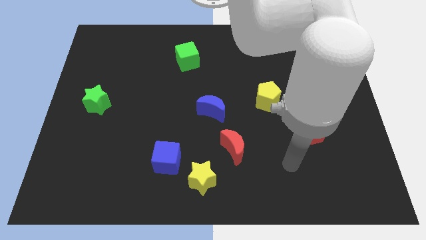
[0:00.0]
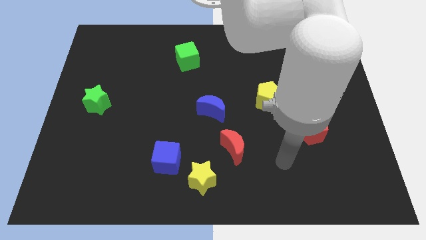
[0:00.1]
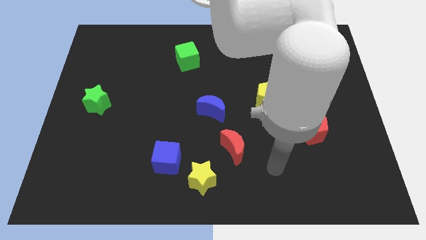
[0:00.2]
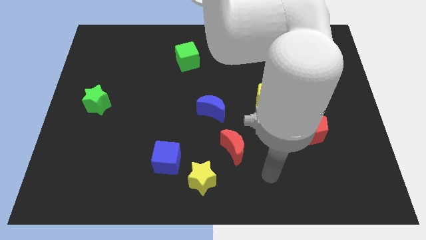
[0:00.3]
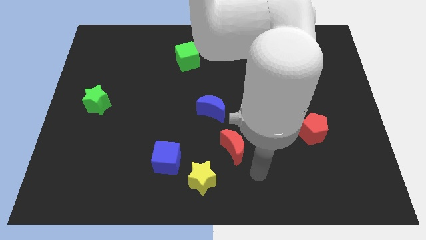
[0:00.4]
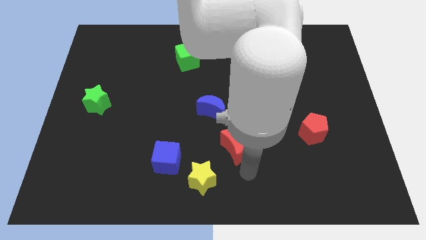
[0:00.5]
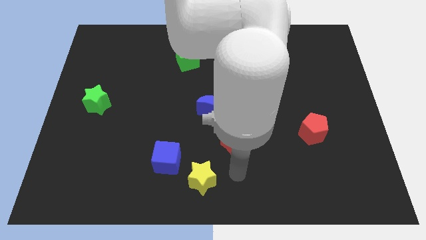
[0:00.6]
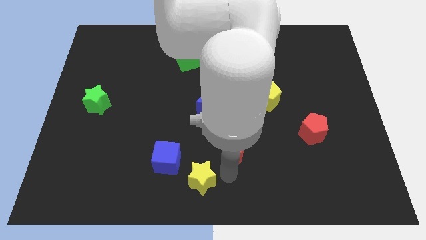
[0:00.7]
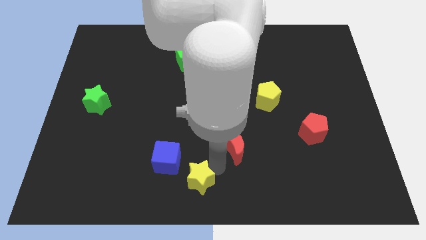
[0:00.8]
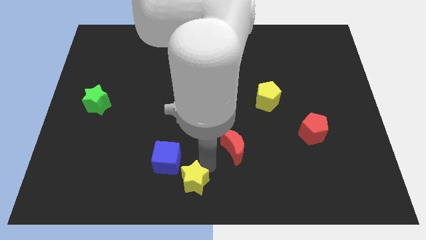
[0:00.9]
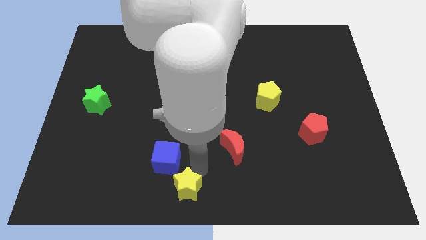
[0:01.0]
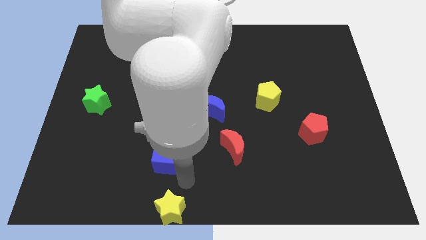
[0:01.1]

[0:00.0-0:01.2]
pull the blue cube apart from the yellow star

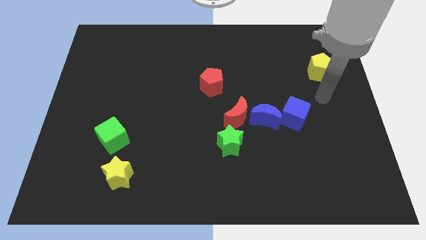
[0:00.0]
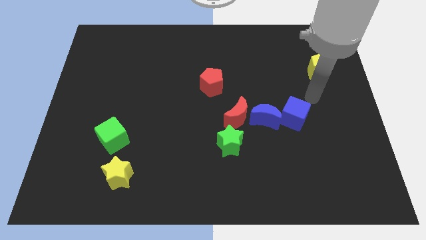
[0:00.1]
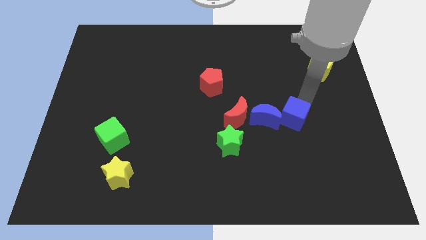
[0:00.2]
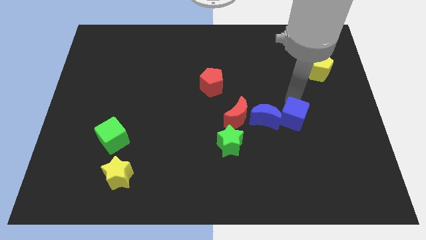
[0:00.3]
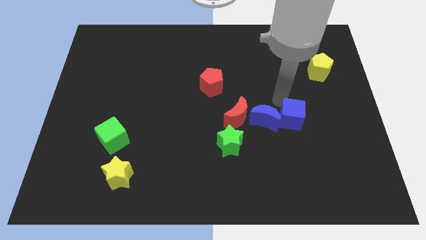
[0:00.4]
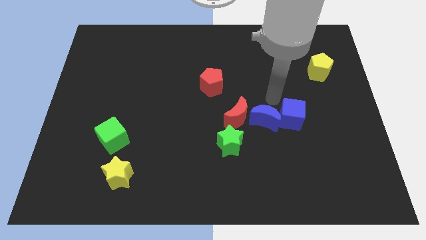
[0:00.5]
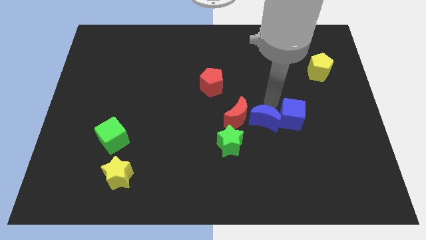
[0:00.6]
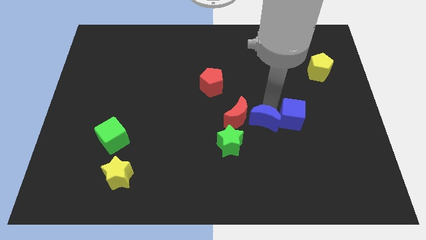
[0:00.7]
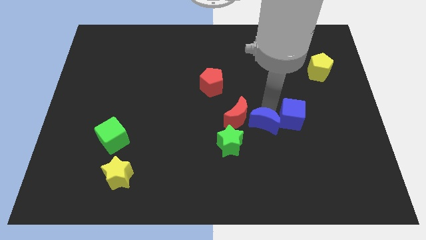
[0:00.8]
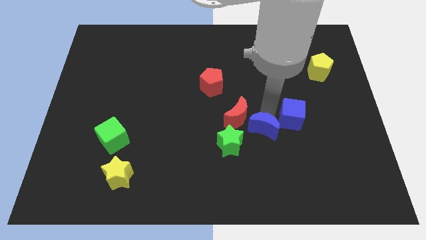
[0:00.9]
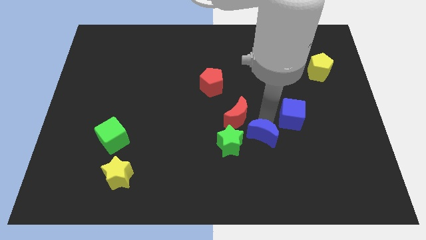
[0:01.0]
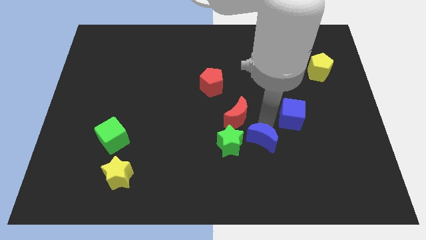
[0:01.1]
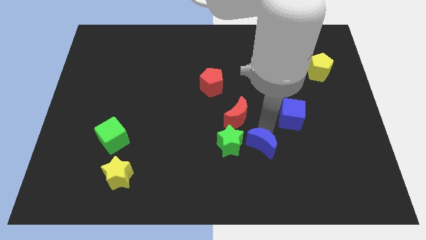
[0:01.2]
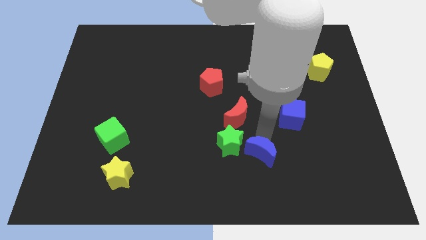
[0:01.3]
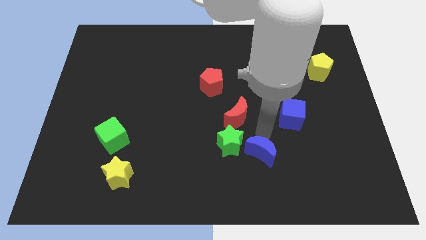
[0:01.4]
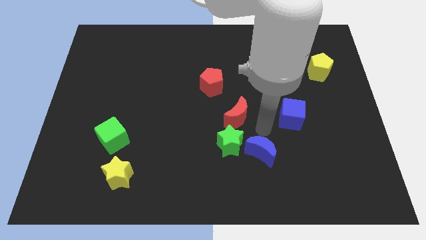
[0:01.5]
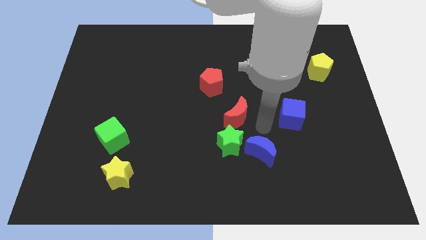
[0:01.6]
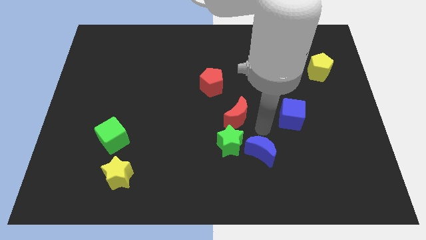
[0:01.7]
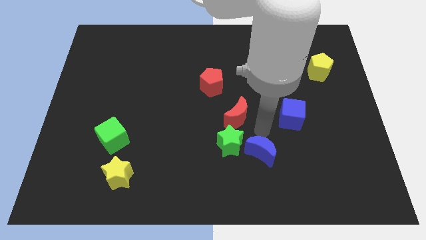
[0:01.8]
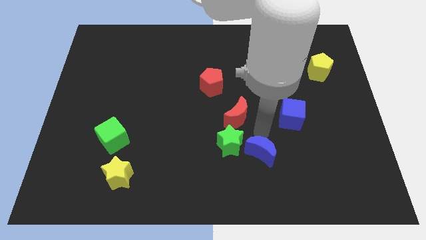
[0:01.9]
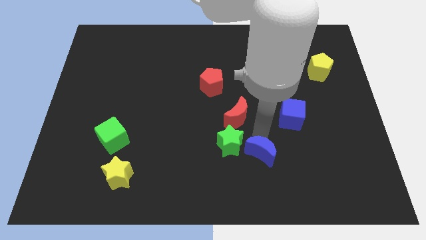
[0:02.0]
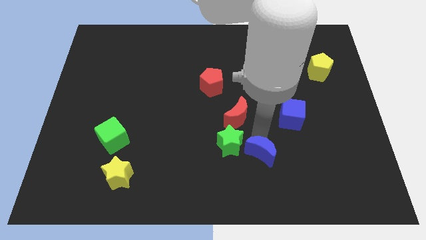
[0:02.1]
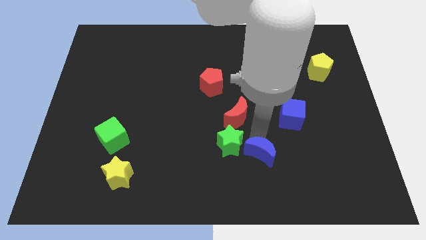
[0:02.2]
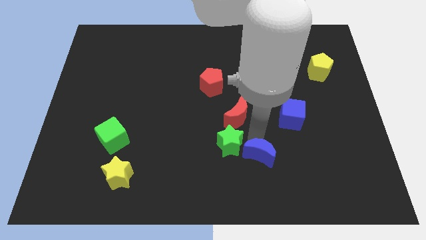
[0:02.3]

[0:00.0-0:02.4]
pull the blue moon apart from the red moon and blue cube

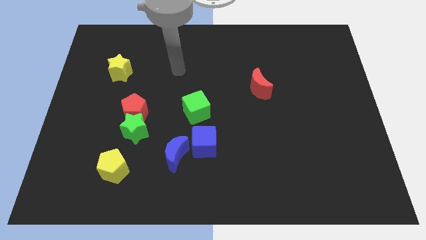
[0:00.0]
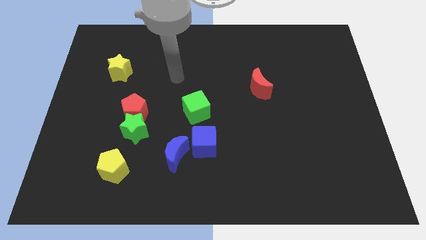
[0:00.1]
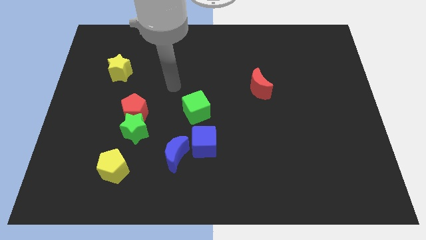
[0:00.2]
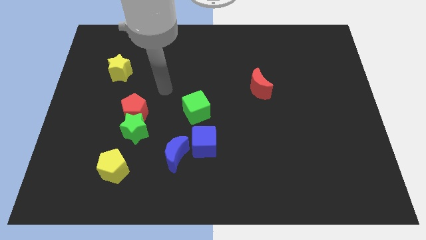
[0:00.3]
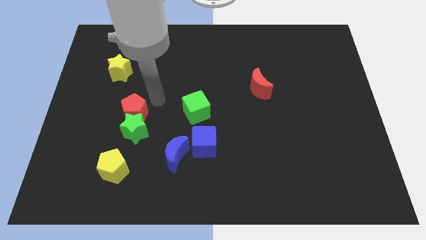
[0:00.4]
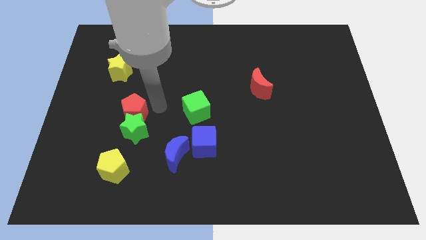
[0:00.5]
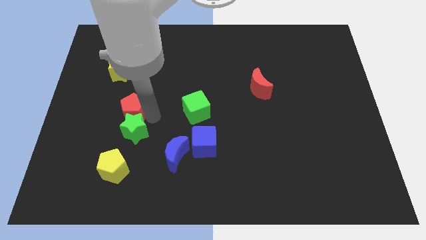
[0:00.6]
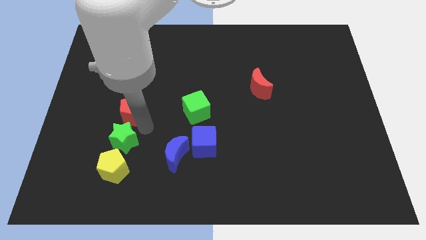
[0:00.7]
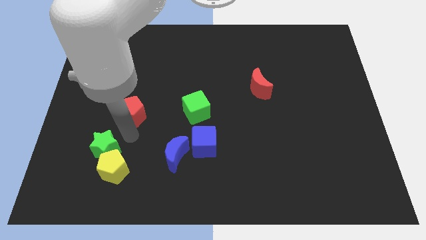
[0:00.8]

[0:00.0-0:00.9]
separate the red pentagon from the green star

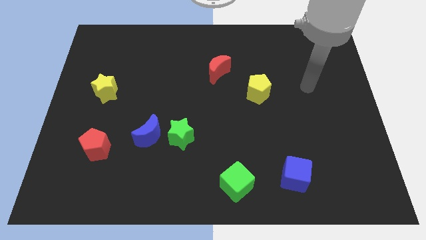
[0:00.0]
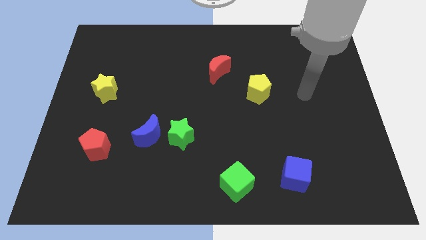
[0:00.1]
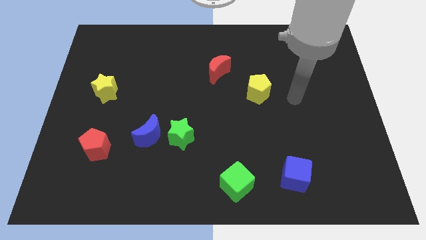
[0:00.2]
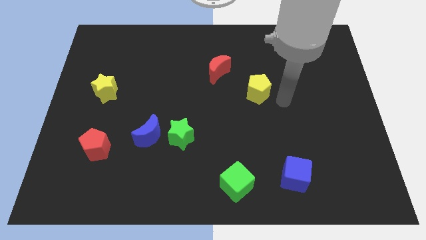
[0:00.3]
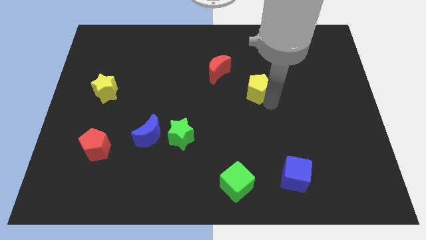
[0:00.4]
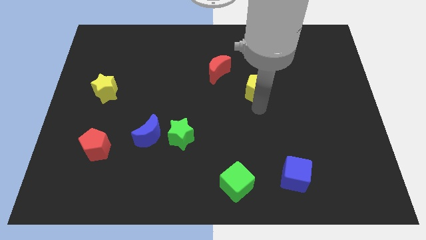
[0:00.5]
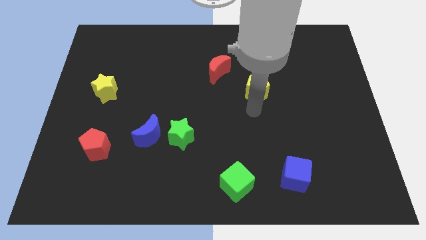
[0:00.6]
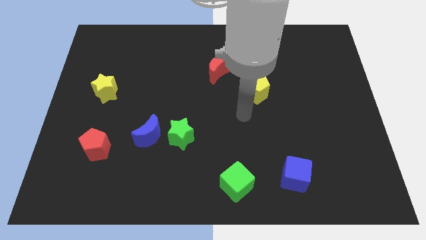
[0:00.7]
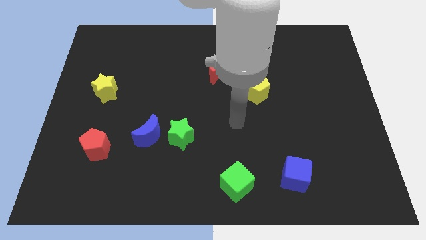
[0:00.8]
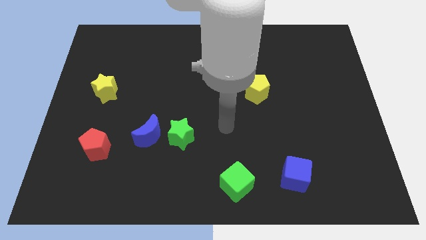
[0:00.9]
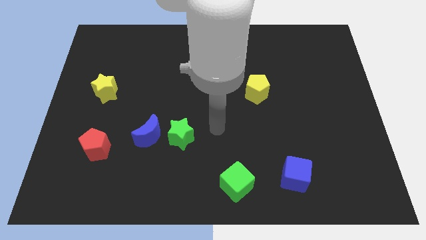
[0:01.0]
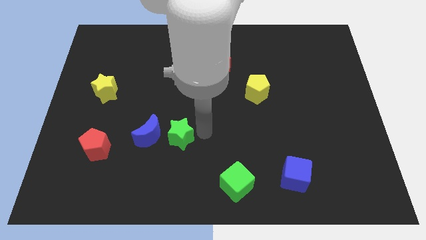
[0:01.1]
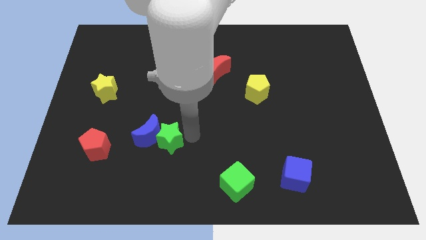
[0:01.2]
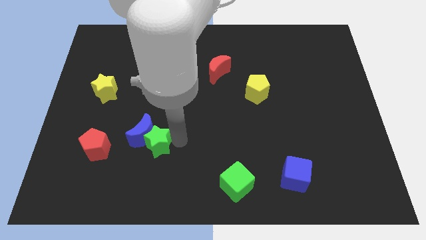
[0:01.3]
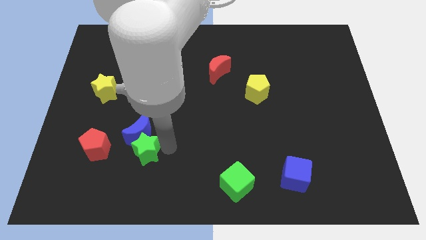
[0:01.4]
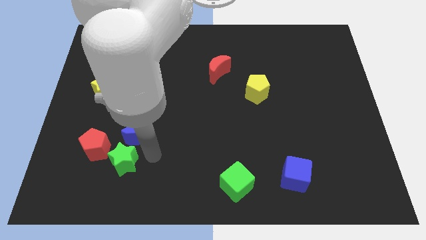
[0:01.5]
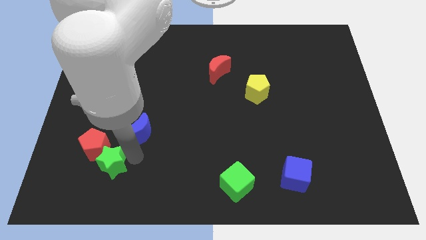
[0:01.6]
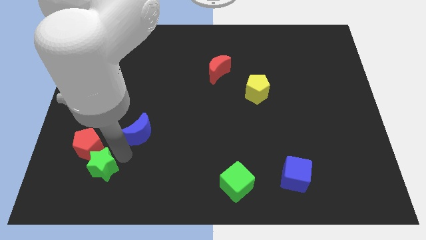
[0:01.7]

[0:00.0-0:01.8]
separate the blue moon from the green star

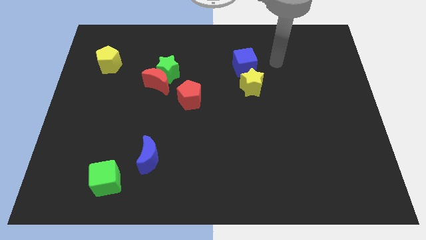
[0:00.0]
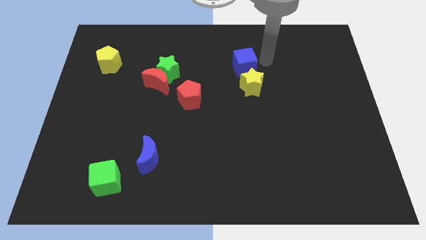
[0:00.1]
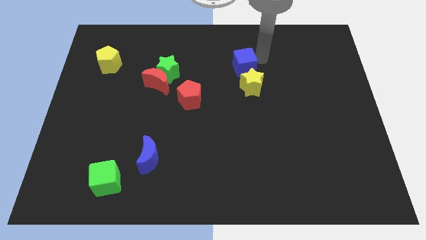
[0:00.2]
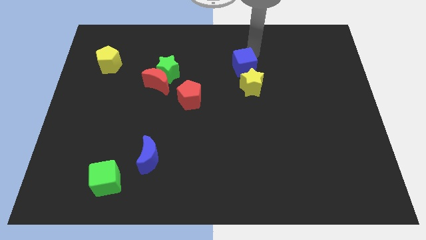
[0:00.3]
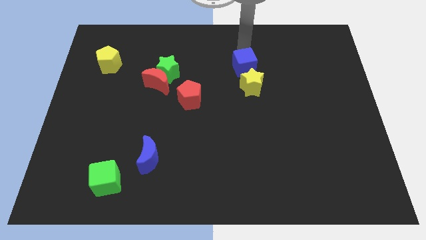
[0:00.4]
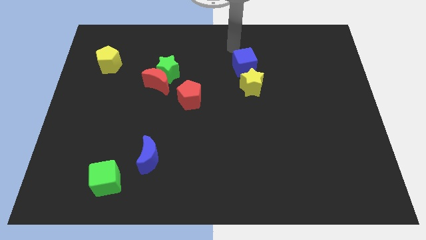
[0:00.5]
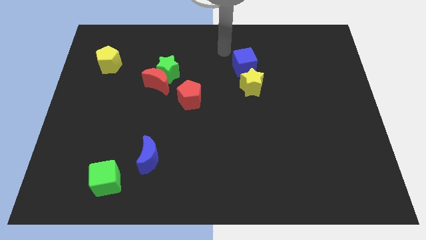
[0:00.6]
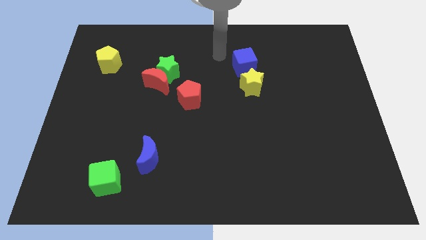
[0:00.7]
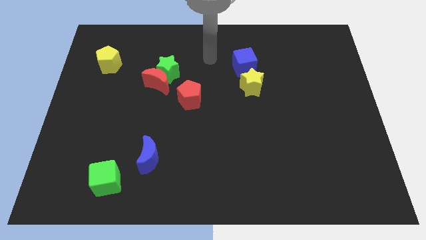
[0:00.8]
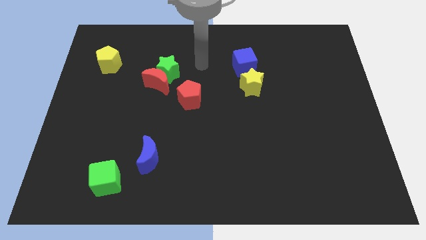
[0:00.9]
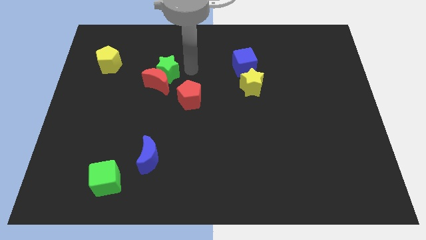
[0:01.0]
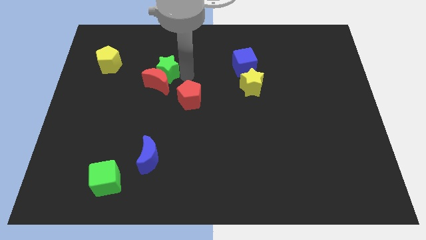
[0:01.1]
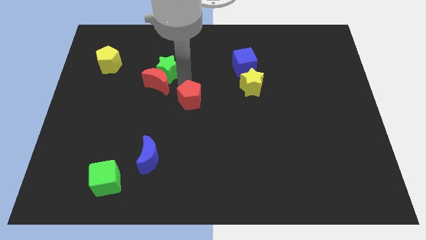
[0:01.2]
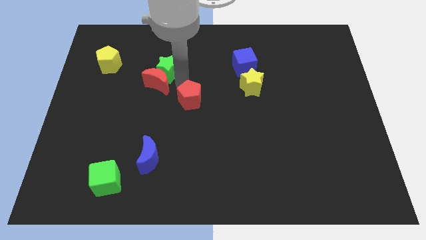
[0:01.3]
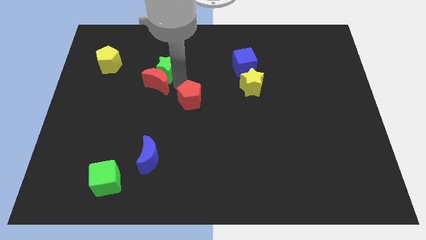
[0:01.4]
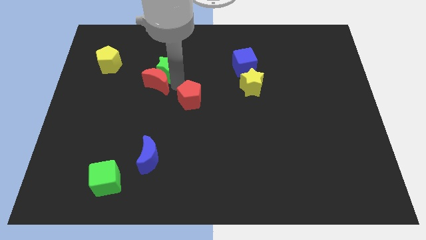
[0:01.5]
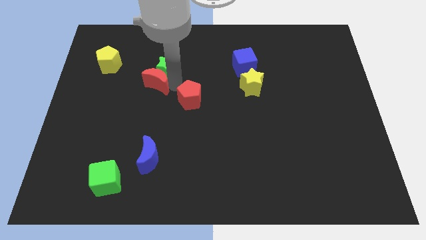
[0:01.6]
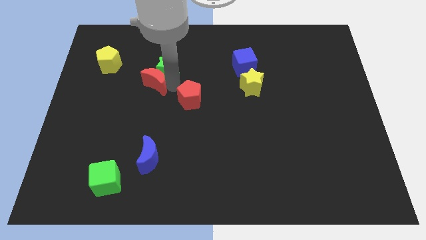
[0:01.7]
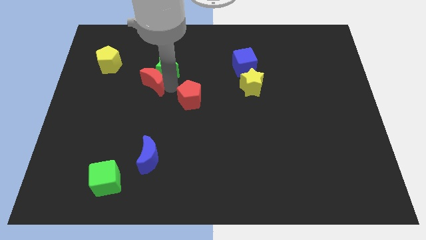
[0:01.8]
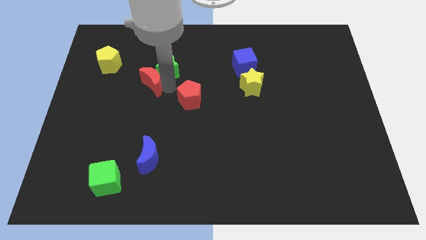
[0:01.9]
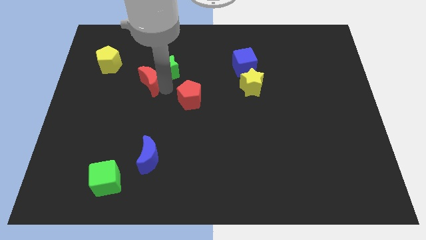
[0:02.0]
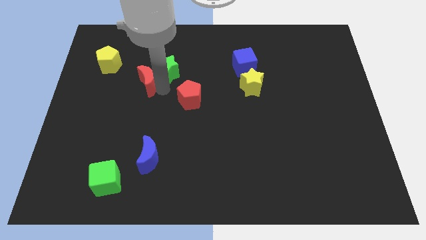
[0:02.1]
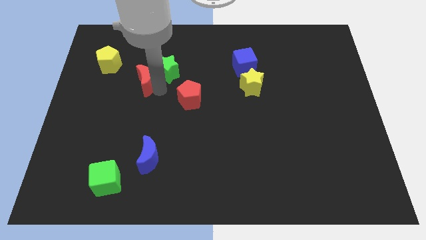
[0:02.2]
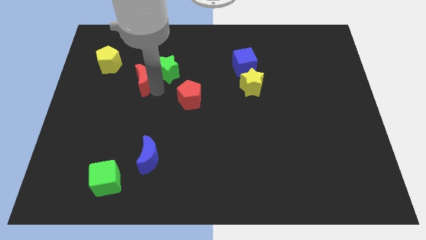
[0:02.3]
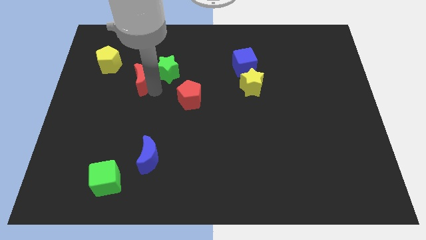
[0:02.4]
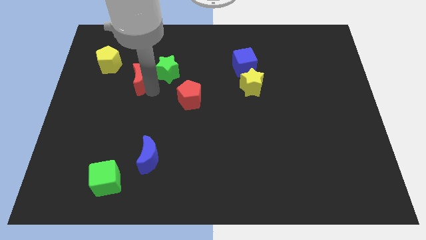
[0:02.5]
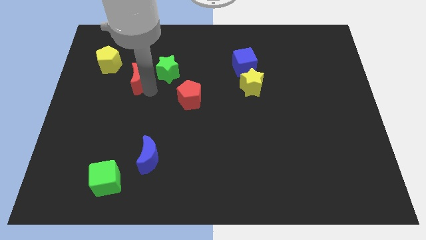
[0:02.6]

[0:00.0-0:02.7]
move the red moon away from the green star and red pentagon

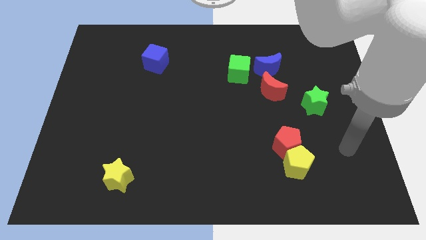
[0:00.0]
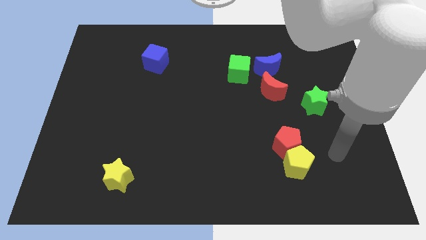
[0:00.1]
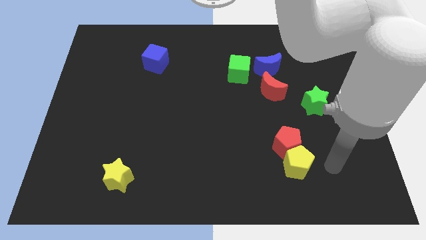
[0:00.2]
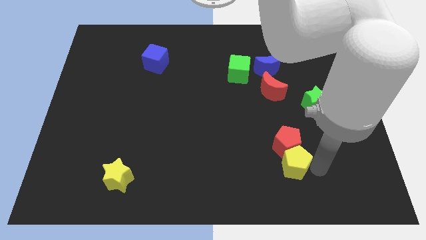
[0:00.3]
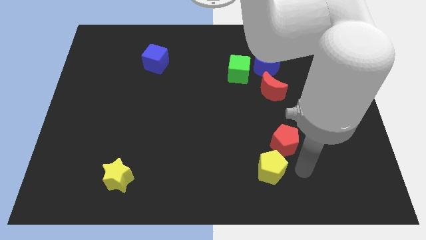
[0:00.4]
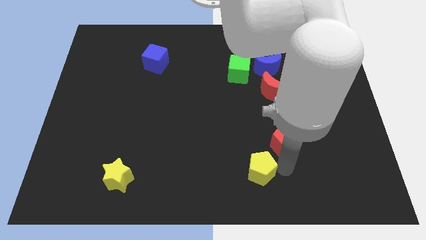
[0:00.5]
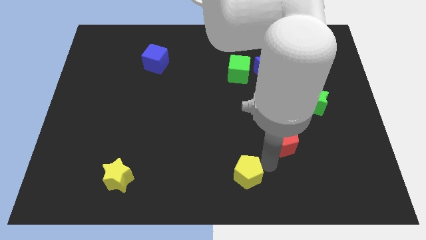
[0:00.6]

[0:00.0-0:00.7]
move the red pentagon away from the yellow pentagon
